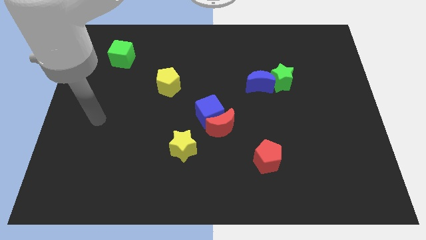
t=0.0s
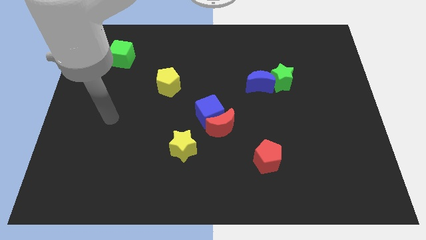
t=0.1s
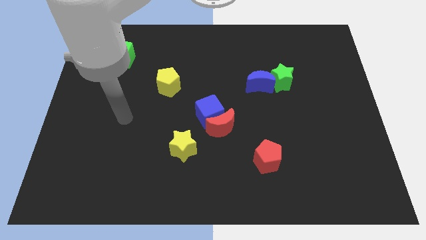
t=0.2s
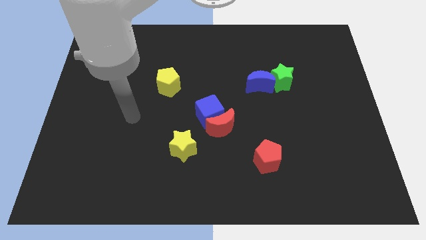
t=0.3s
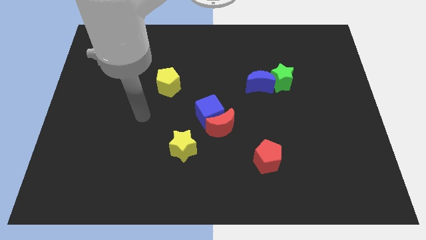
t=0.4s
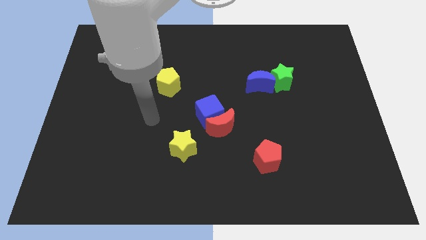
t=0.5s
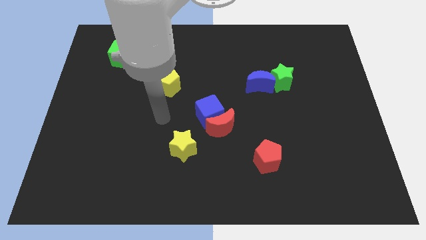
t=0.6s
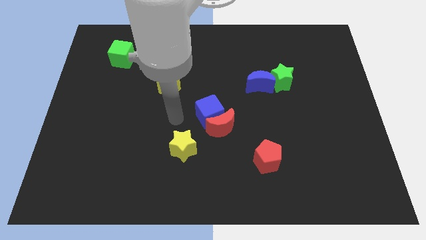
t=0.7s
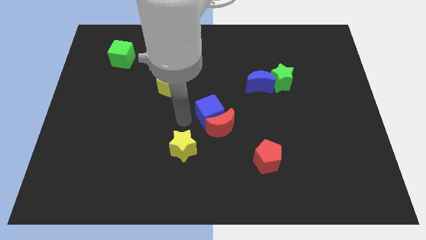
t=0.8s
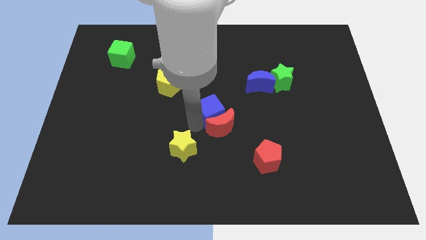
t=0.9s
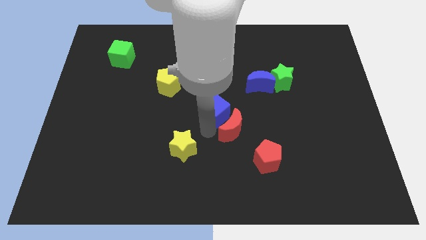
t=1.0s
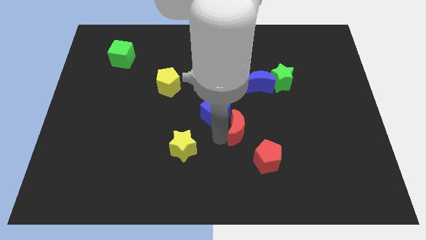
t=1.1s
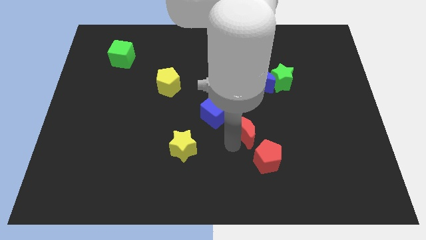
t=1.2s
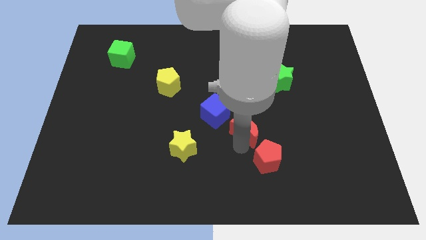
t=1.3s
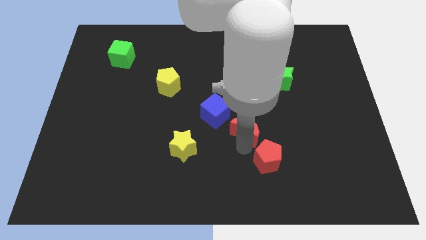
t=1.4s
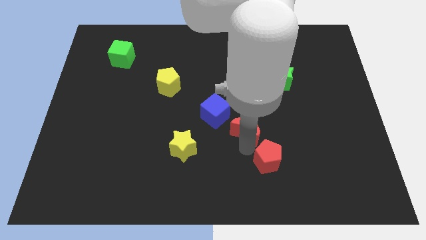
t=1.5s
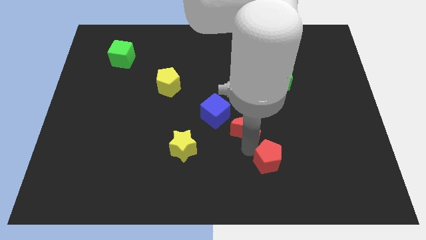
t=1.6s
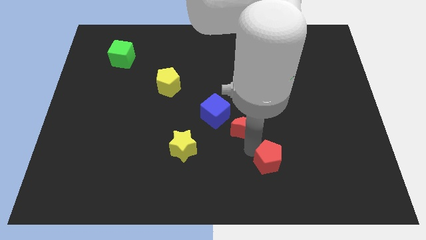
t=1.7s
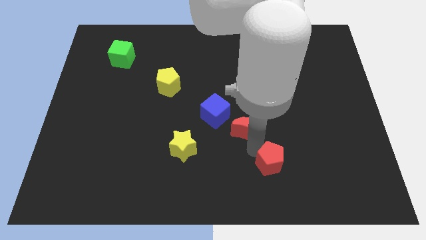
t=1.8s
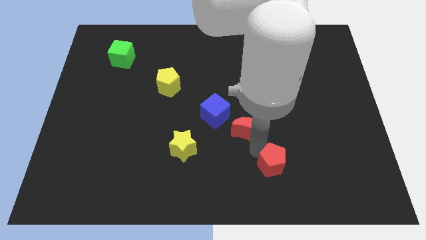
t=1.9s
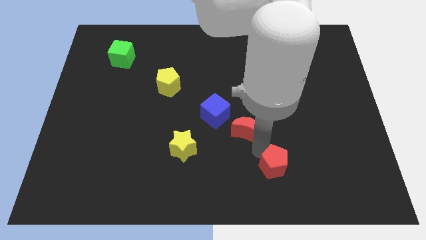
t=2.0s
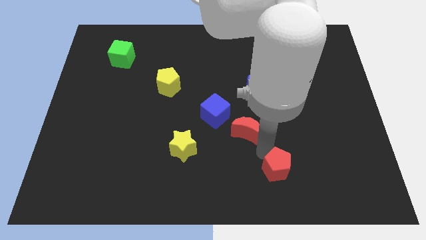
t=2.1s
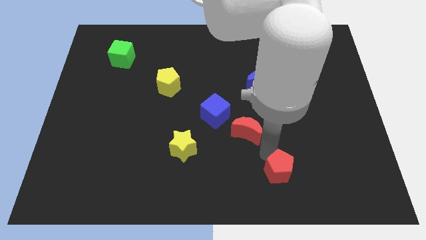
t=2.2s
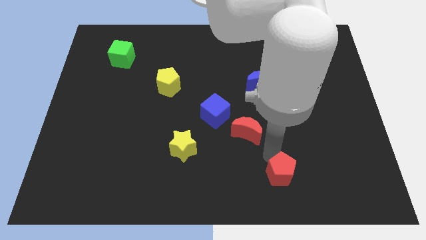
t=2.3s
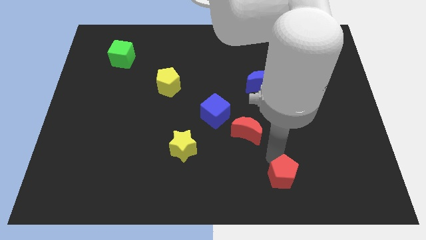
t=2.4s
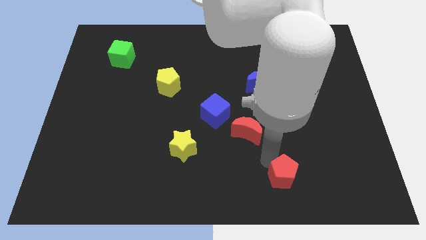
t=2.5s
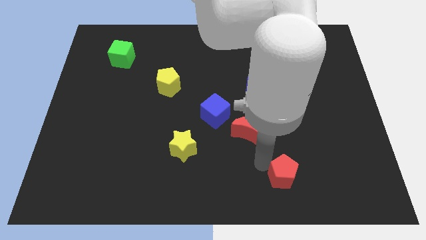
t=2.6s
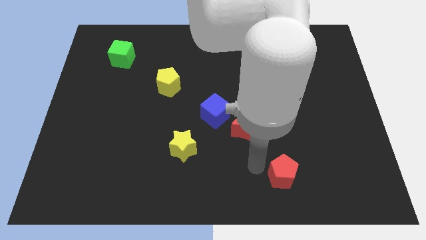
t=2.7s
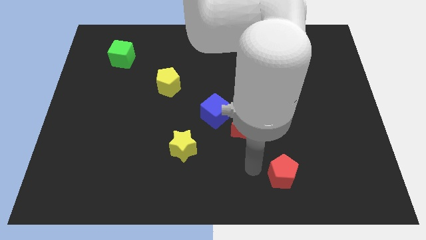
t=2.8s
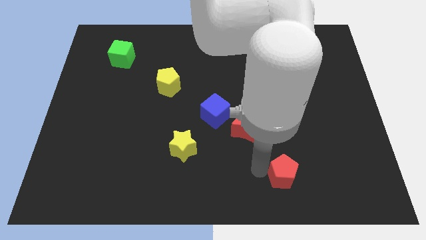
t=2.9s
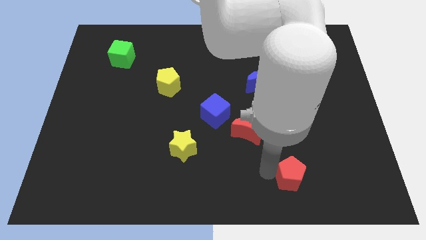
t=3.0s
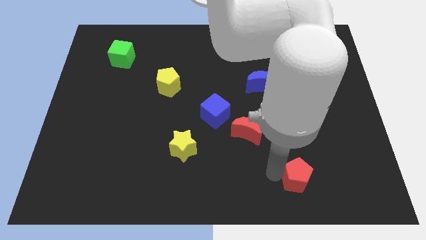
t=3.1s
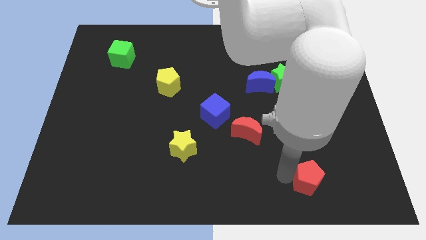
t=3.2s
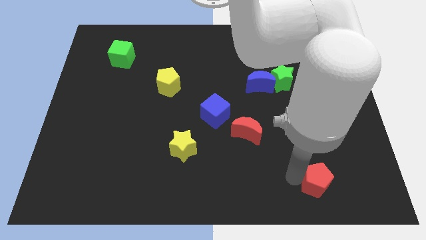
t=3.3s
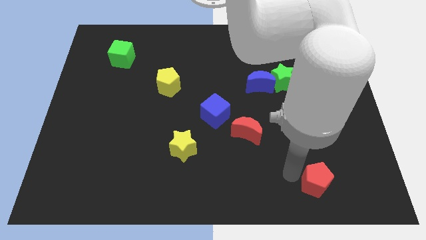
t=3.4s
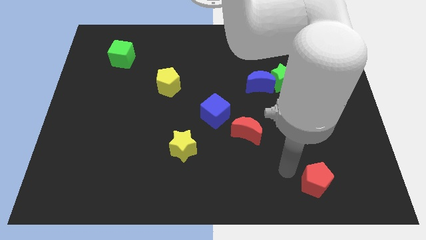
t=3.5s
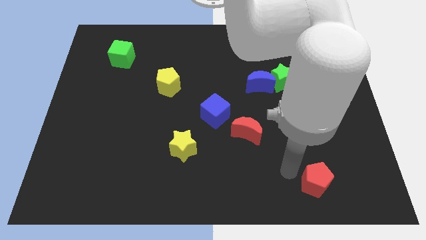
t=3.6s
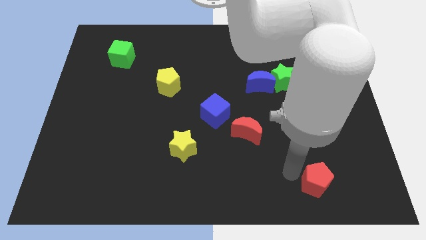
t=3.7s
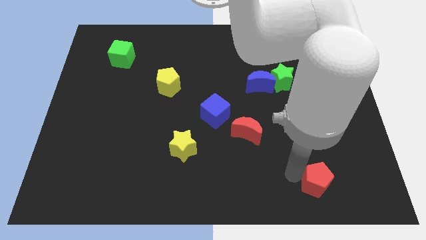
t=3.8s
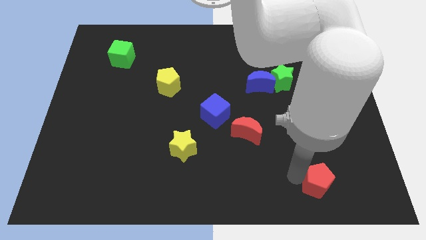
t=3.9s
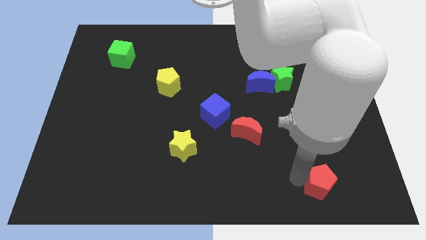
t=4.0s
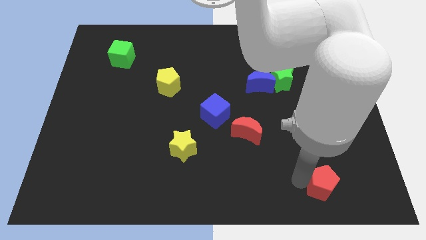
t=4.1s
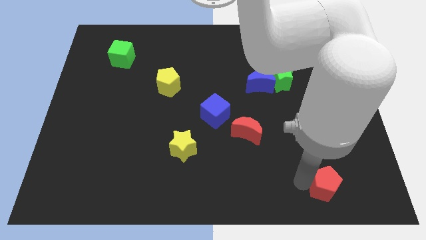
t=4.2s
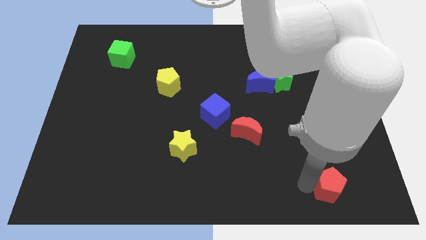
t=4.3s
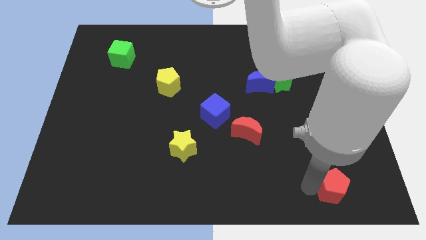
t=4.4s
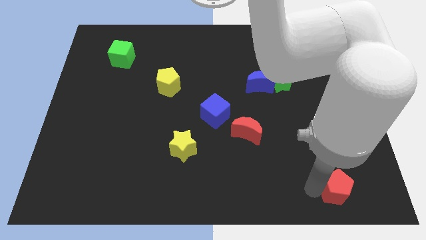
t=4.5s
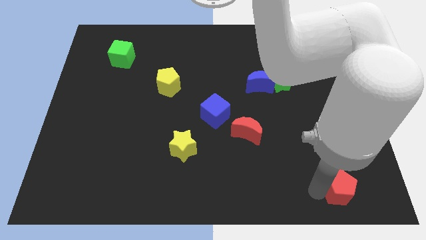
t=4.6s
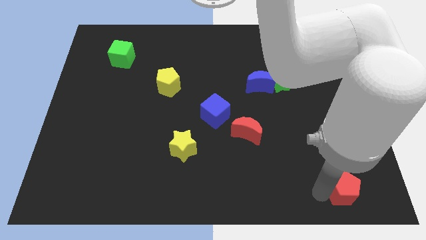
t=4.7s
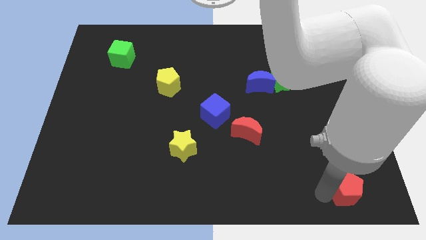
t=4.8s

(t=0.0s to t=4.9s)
slide the red pentagon to the bottom right corner

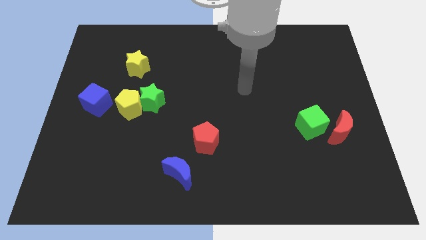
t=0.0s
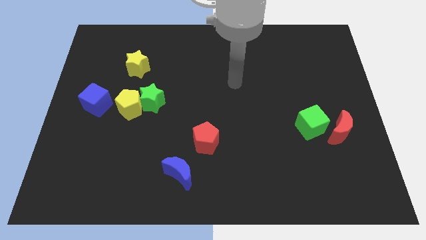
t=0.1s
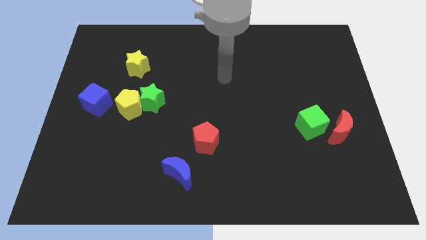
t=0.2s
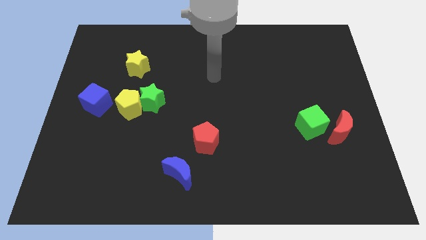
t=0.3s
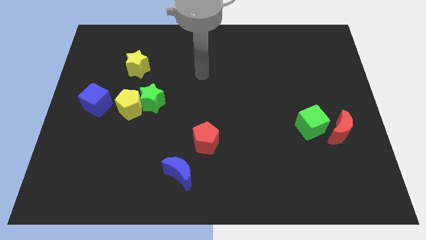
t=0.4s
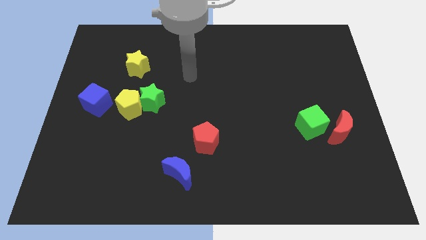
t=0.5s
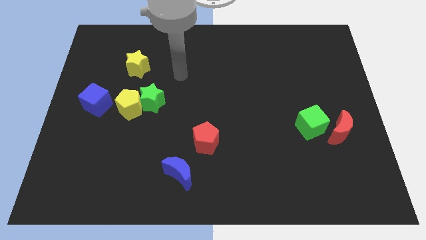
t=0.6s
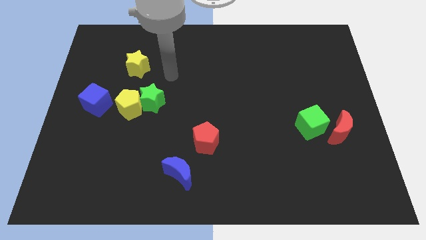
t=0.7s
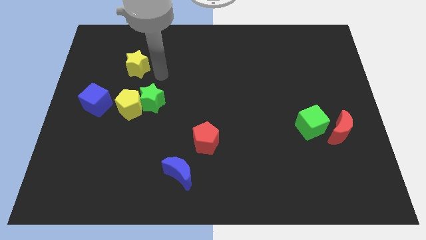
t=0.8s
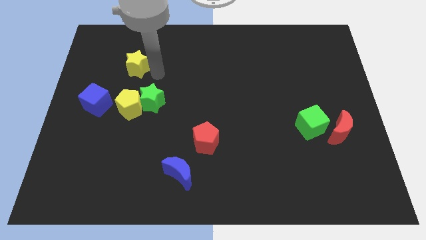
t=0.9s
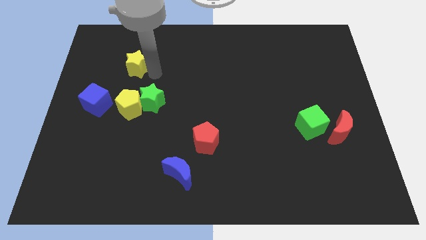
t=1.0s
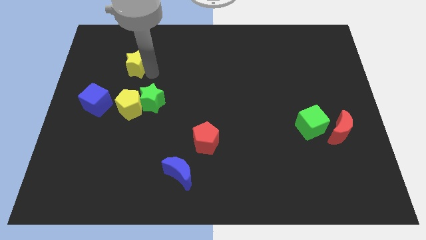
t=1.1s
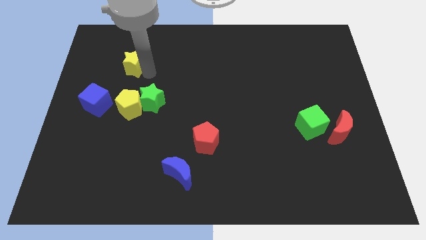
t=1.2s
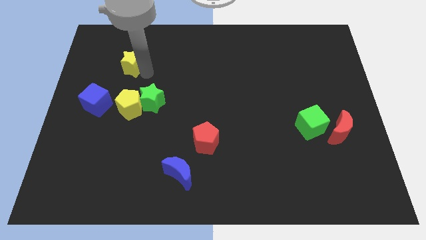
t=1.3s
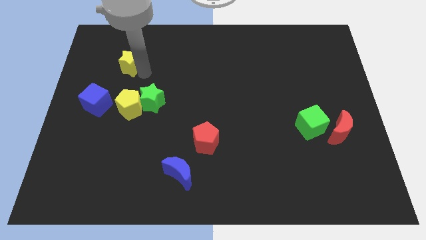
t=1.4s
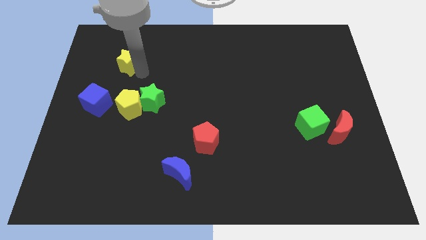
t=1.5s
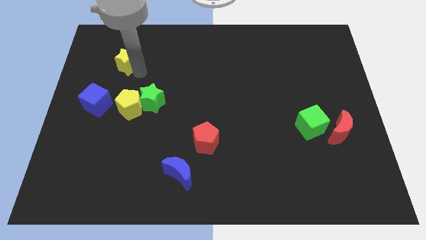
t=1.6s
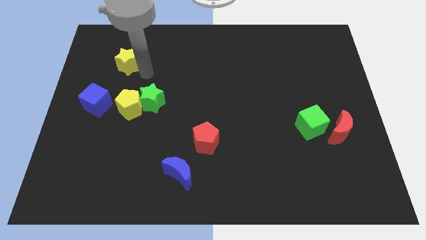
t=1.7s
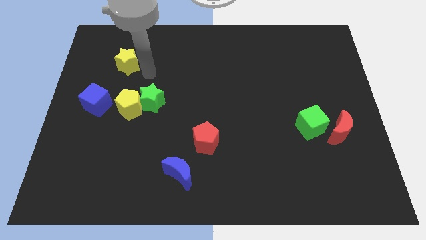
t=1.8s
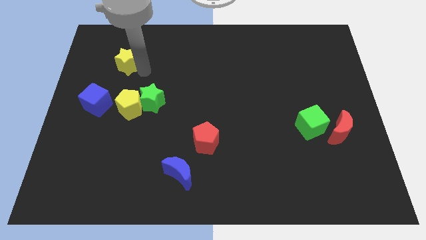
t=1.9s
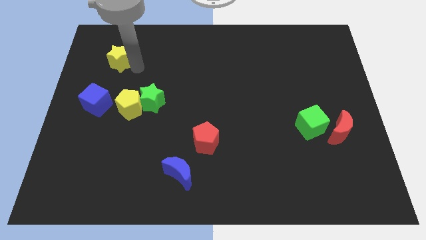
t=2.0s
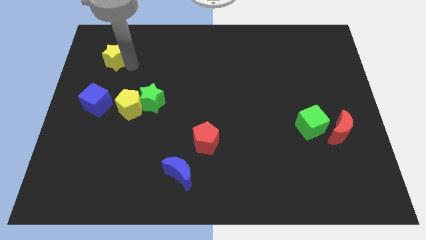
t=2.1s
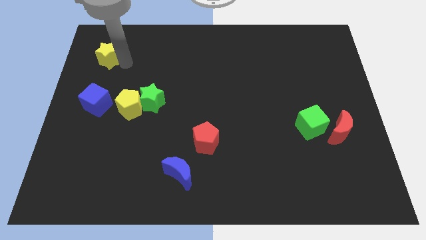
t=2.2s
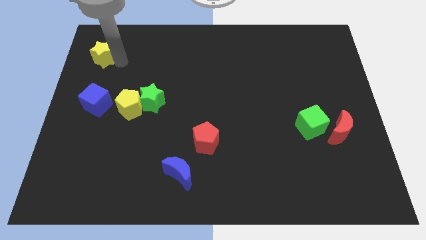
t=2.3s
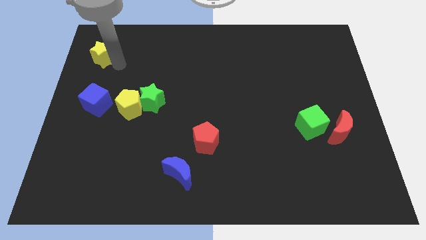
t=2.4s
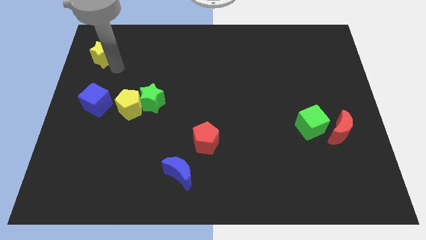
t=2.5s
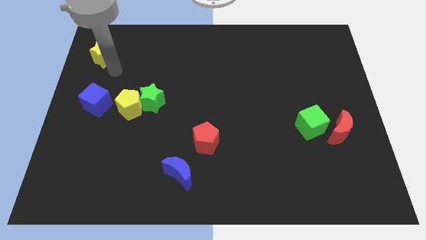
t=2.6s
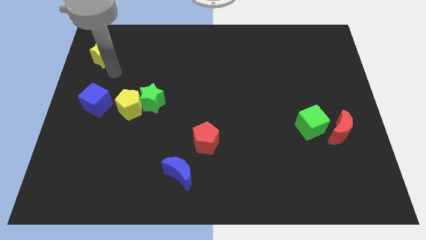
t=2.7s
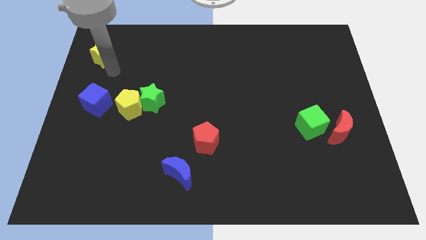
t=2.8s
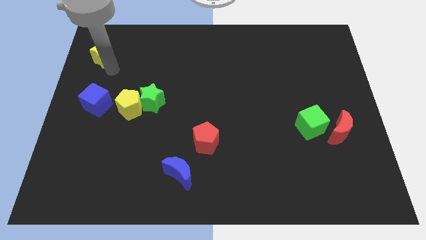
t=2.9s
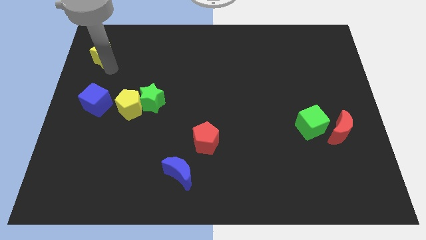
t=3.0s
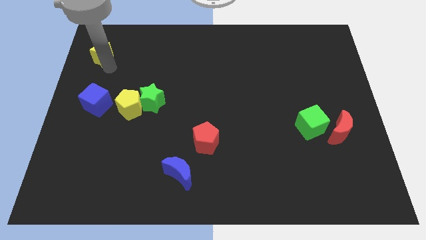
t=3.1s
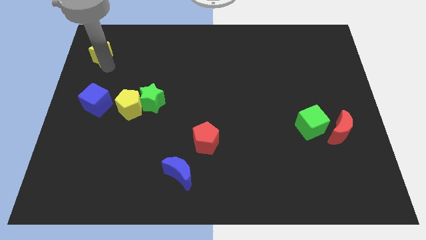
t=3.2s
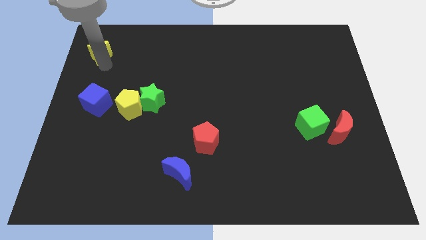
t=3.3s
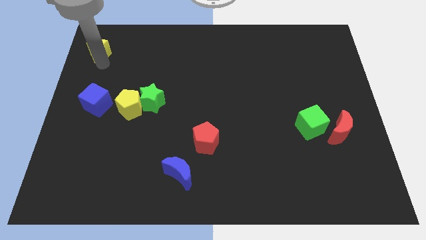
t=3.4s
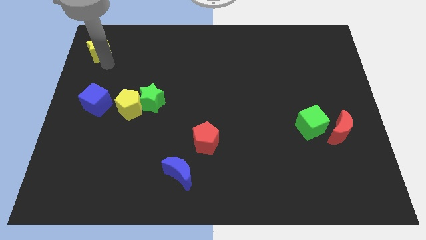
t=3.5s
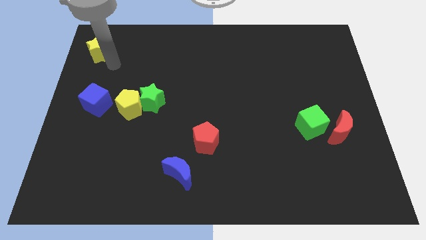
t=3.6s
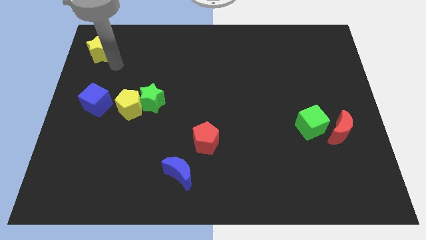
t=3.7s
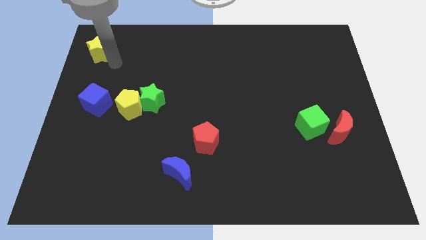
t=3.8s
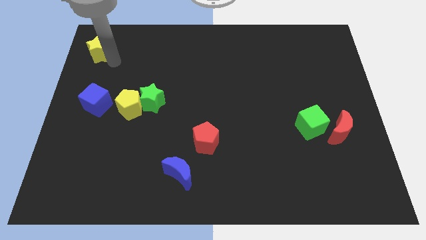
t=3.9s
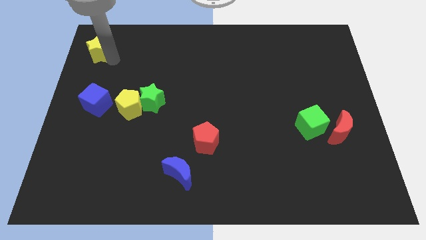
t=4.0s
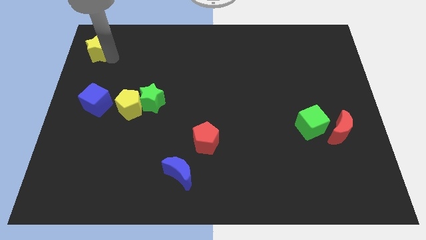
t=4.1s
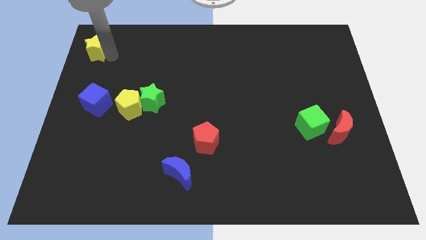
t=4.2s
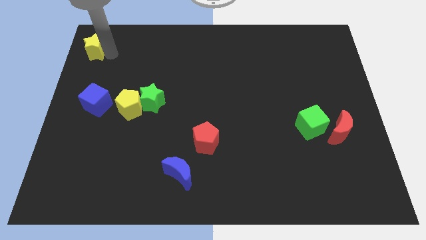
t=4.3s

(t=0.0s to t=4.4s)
move the yellow star to the top left corner
